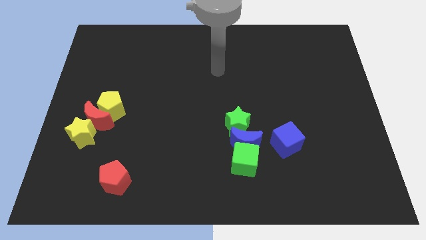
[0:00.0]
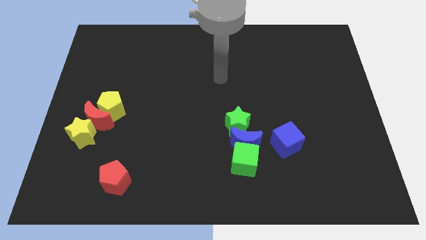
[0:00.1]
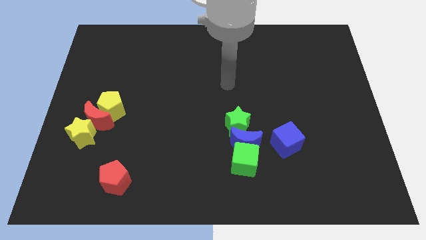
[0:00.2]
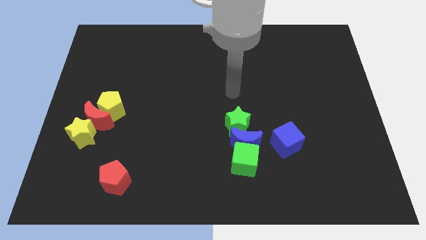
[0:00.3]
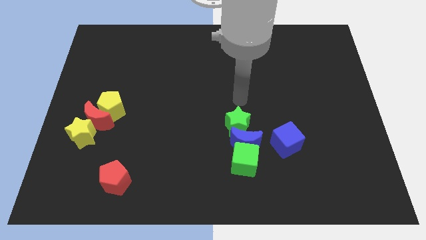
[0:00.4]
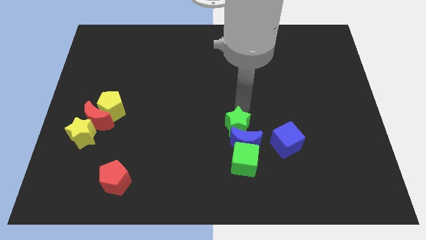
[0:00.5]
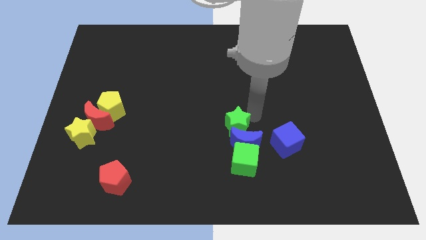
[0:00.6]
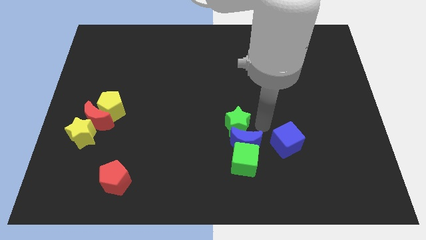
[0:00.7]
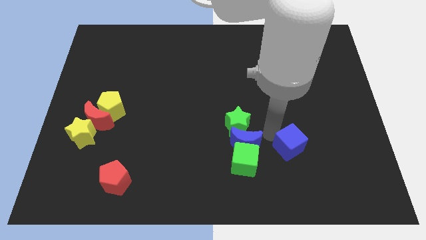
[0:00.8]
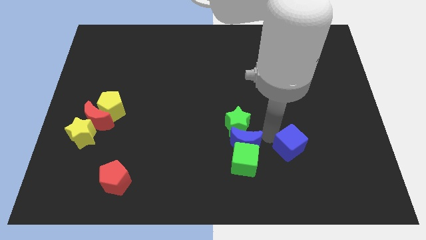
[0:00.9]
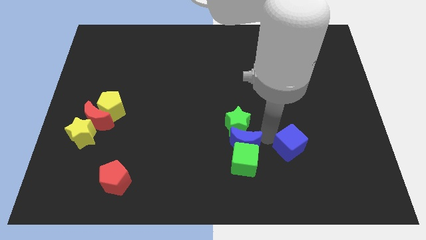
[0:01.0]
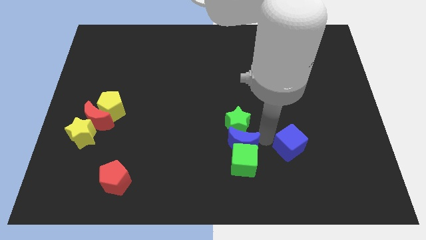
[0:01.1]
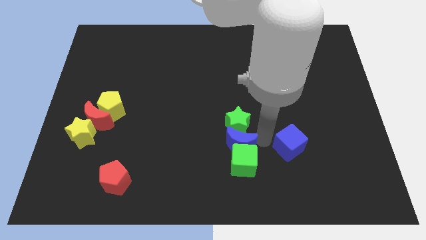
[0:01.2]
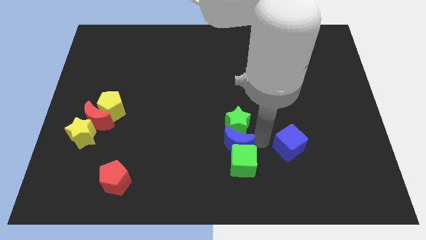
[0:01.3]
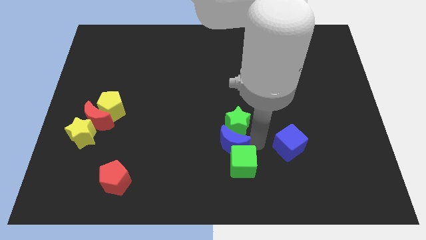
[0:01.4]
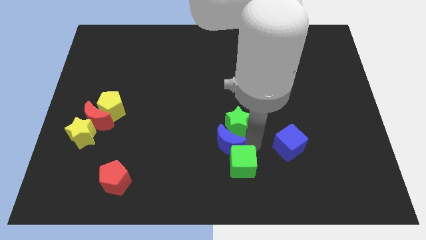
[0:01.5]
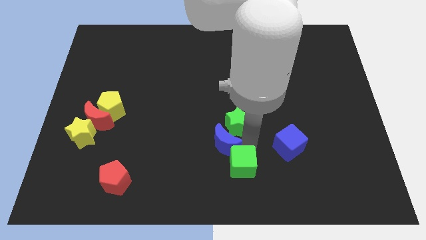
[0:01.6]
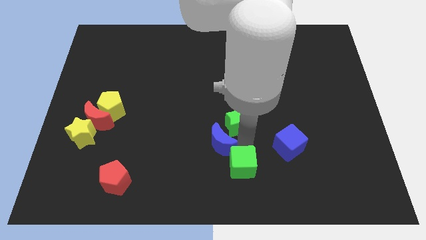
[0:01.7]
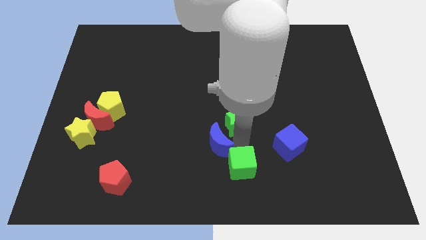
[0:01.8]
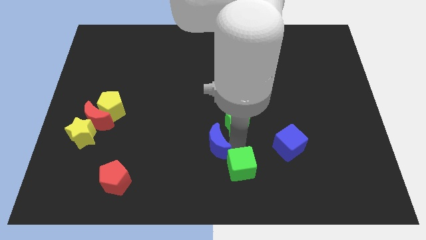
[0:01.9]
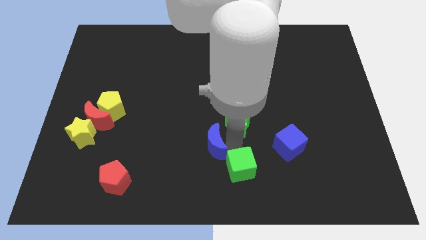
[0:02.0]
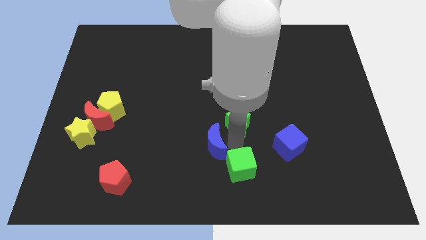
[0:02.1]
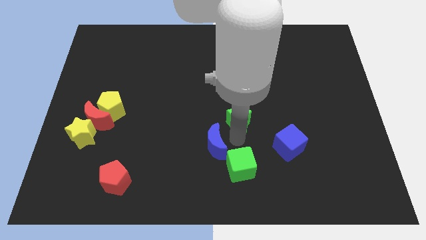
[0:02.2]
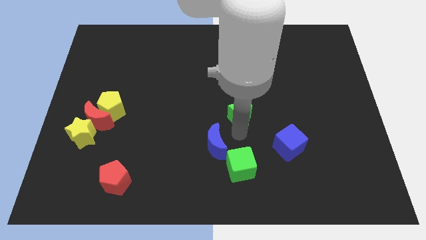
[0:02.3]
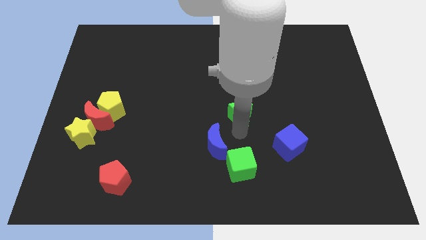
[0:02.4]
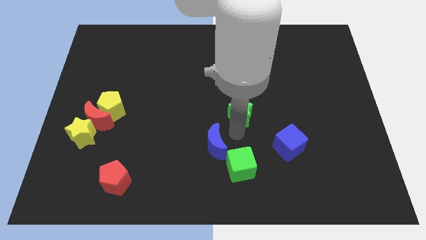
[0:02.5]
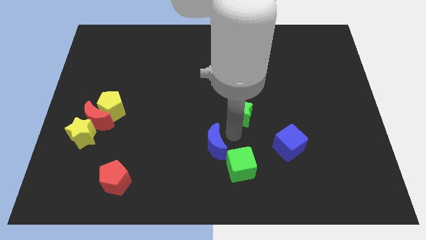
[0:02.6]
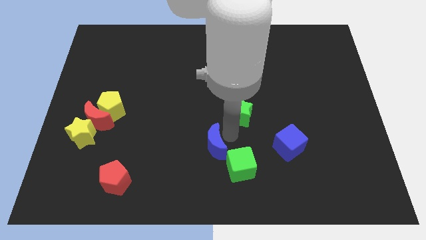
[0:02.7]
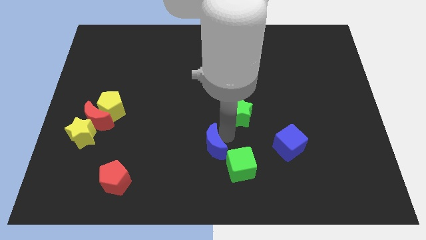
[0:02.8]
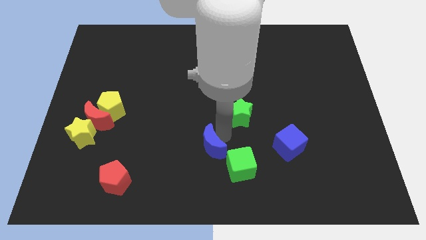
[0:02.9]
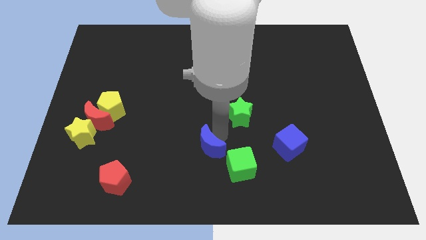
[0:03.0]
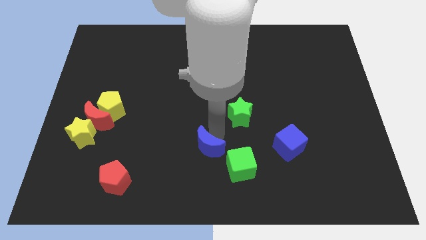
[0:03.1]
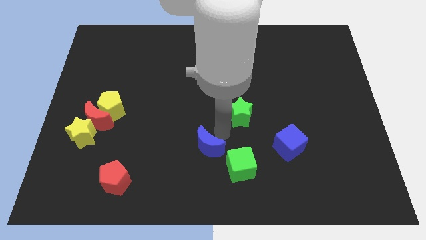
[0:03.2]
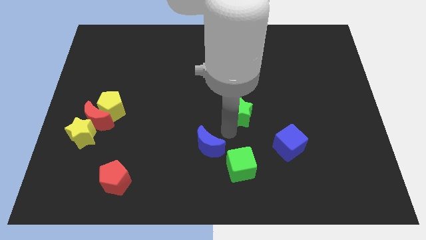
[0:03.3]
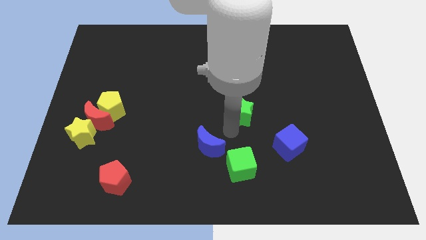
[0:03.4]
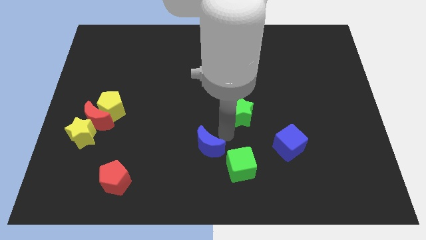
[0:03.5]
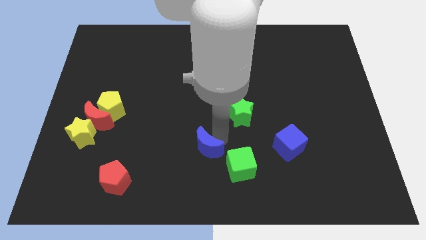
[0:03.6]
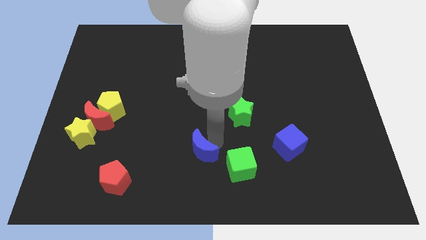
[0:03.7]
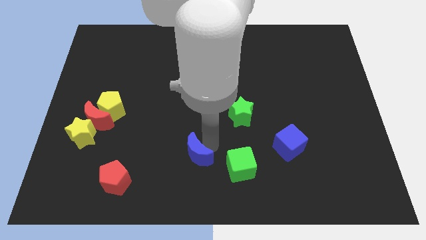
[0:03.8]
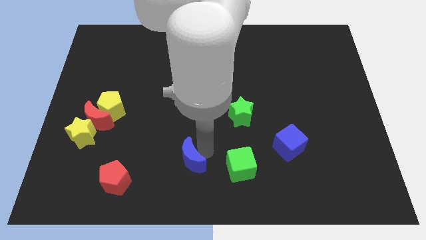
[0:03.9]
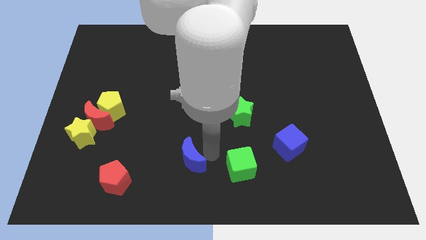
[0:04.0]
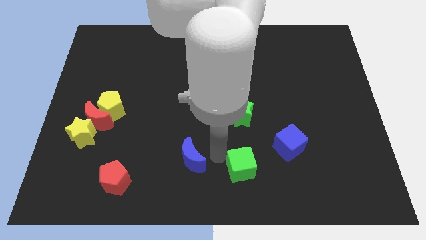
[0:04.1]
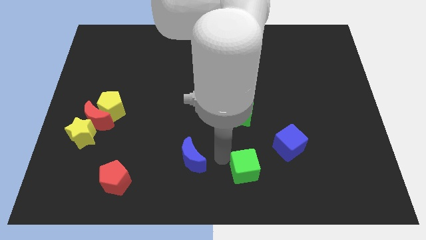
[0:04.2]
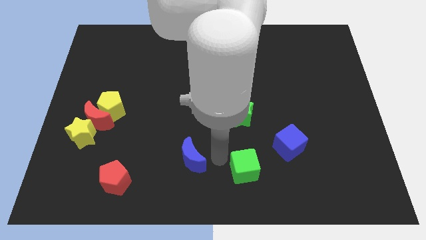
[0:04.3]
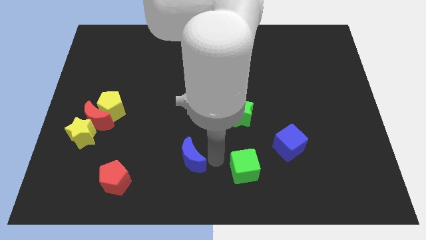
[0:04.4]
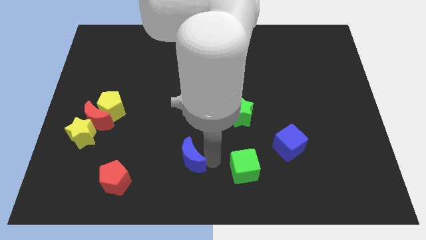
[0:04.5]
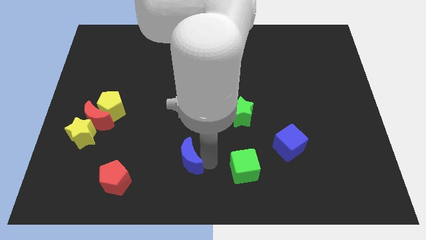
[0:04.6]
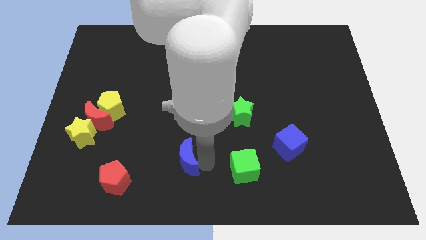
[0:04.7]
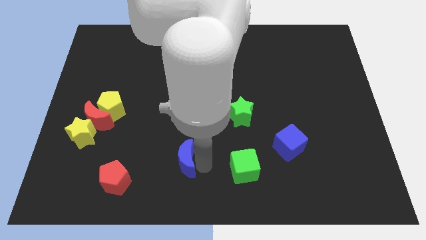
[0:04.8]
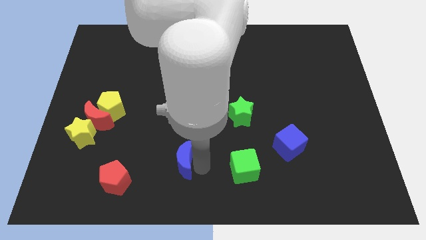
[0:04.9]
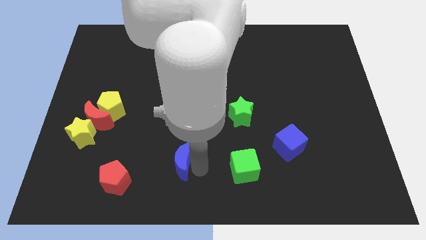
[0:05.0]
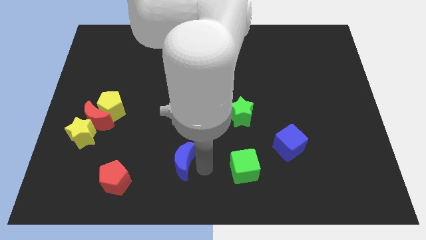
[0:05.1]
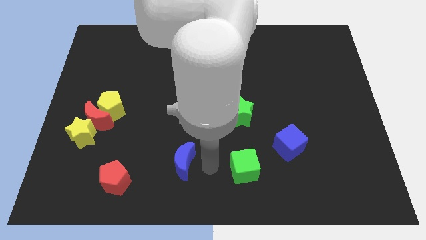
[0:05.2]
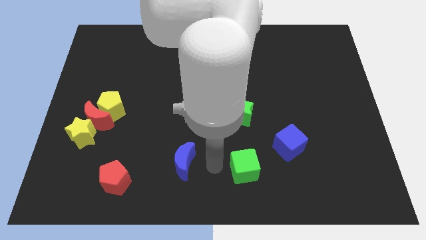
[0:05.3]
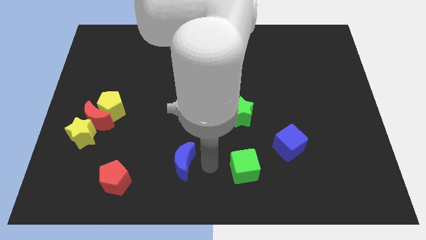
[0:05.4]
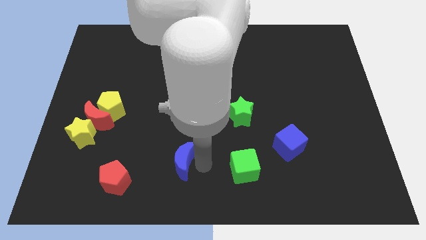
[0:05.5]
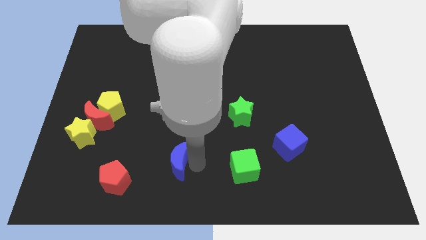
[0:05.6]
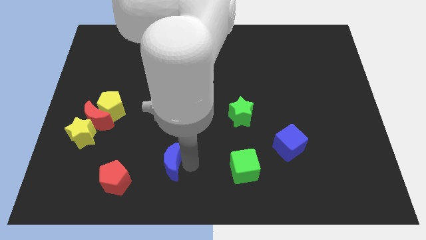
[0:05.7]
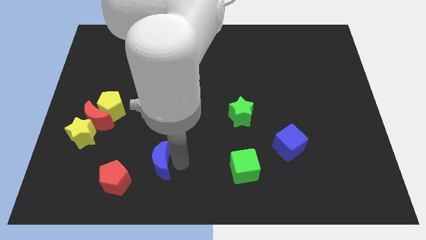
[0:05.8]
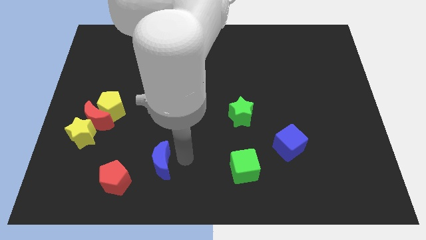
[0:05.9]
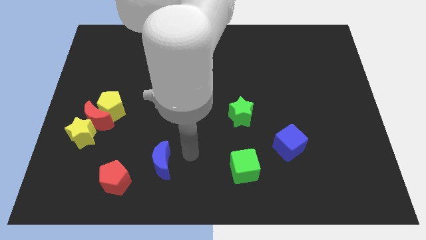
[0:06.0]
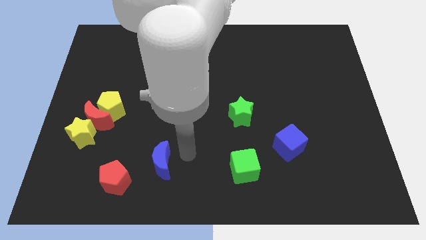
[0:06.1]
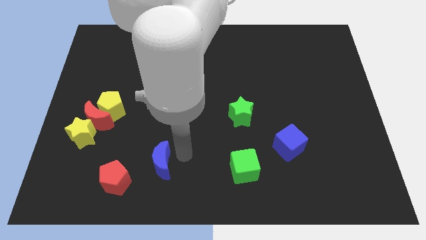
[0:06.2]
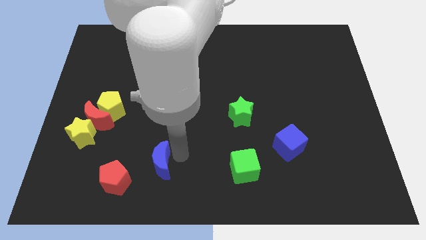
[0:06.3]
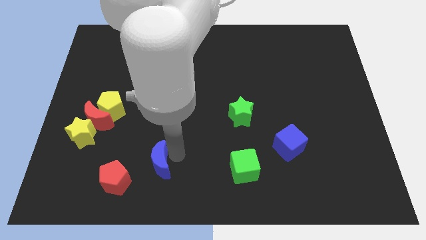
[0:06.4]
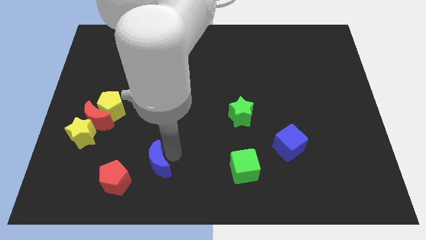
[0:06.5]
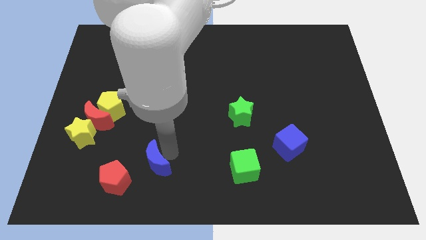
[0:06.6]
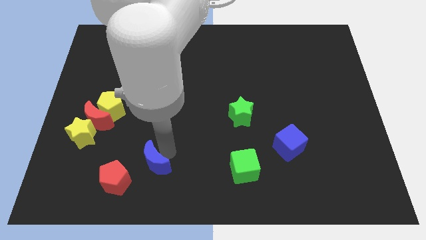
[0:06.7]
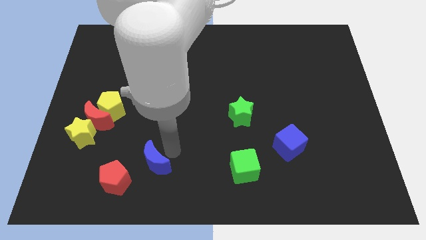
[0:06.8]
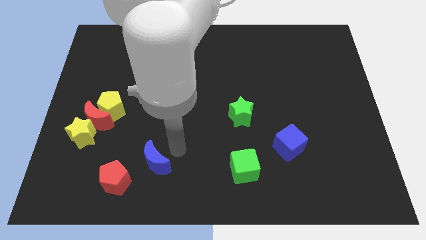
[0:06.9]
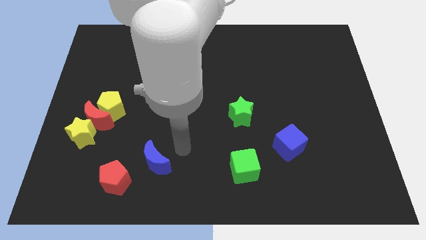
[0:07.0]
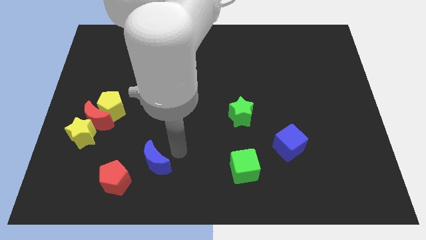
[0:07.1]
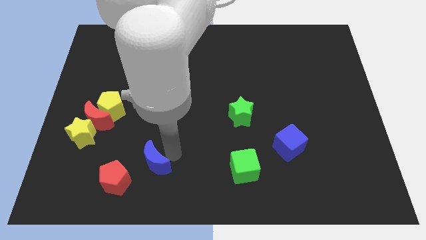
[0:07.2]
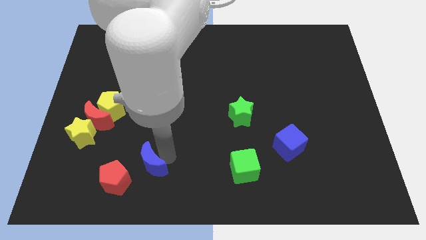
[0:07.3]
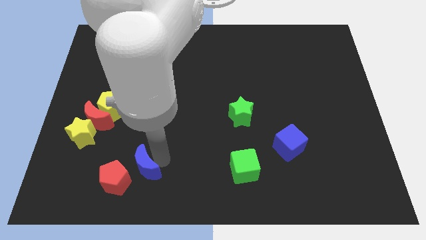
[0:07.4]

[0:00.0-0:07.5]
put the blue moon next to the red pentagon
